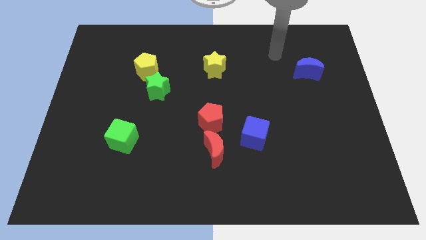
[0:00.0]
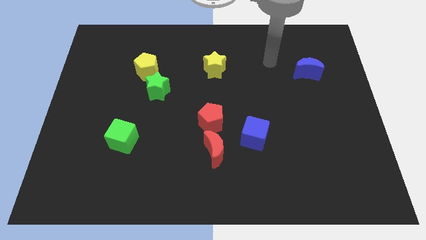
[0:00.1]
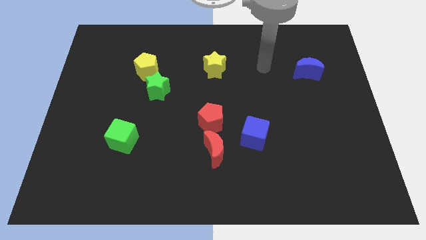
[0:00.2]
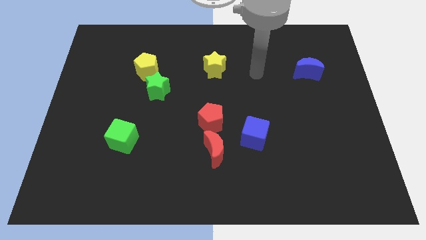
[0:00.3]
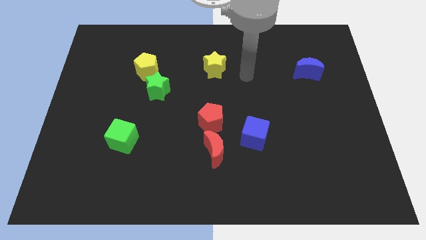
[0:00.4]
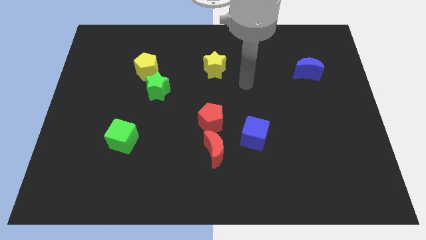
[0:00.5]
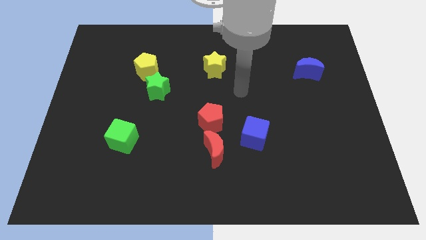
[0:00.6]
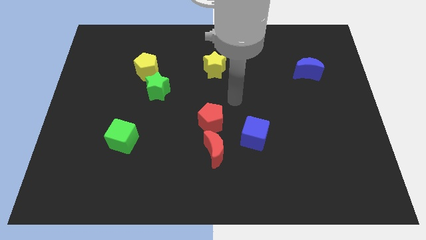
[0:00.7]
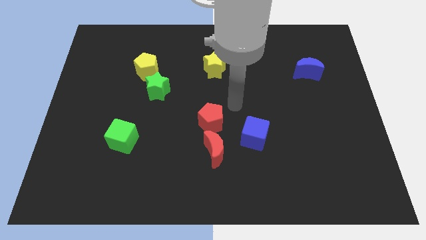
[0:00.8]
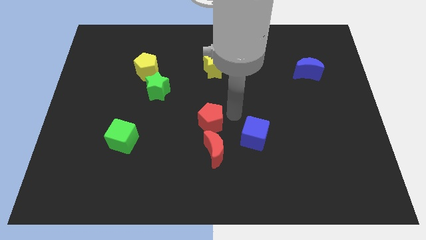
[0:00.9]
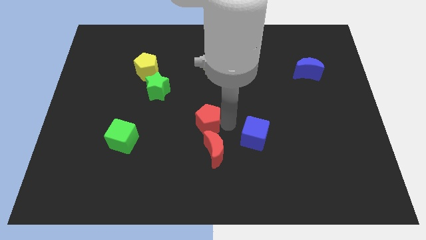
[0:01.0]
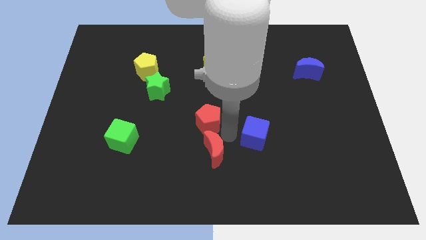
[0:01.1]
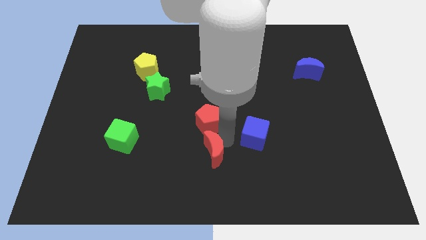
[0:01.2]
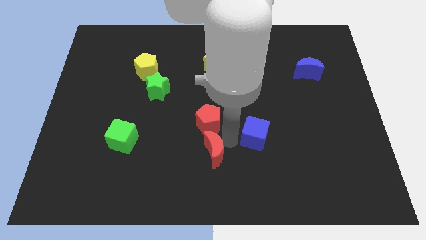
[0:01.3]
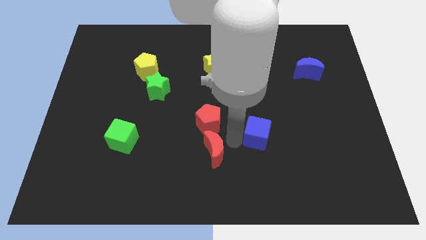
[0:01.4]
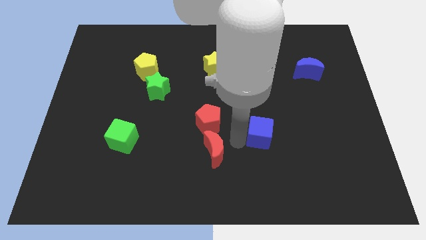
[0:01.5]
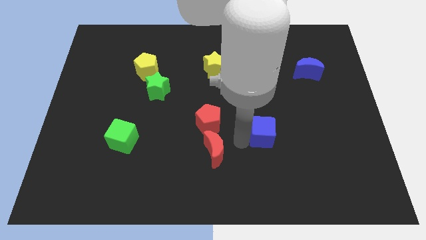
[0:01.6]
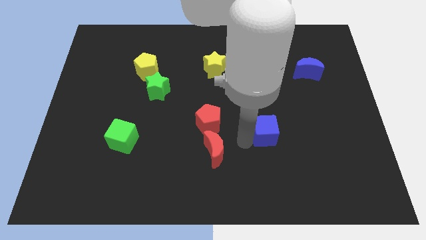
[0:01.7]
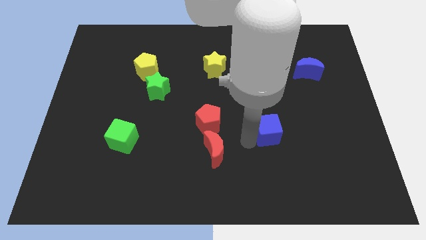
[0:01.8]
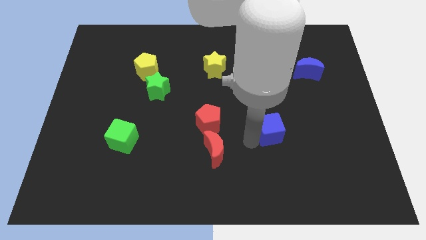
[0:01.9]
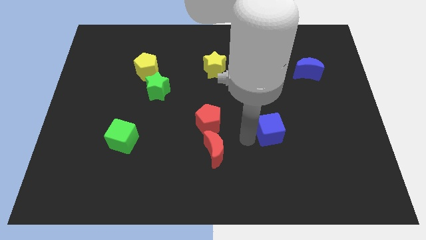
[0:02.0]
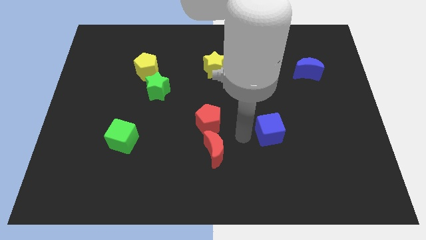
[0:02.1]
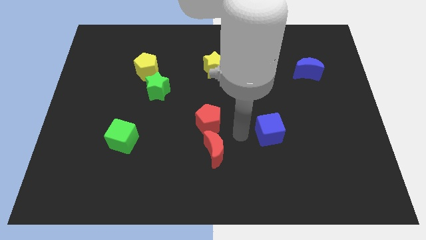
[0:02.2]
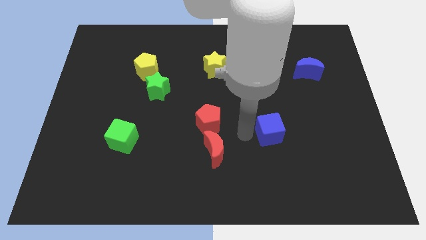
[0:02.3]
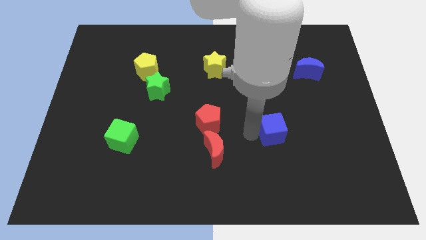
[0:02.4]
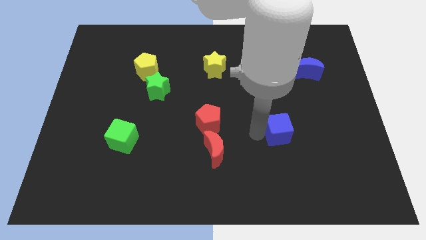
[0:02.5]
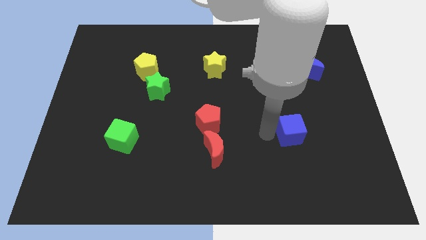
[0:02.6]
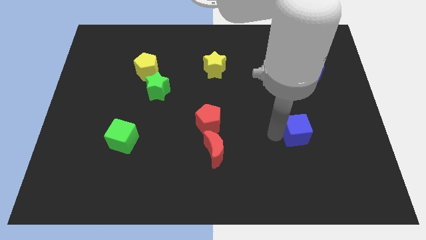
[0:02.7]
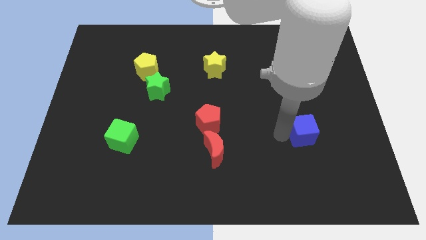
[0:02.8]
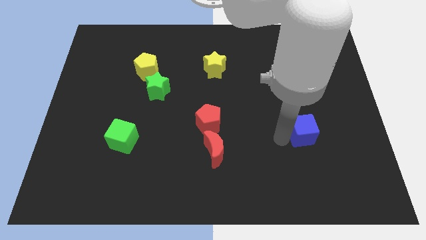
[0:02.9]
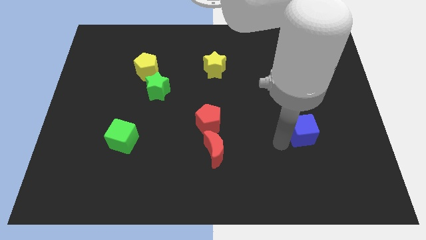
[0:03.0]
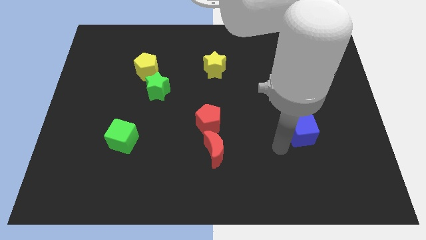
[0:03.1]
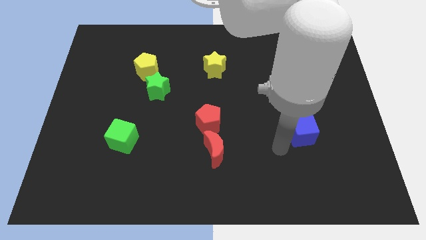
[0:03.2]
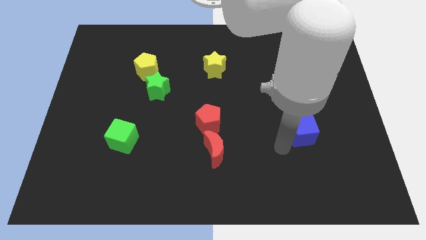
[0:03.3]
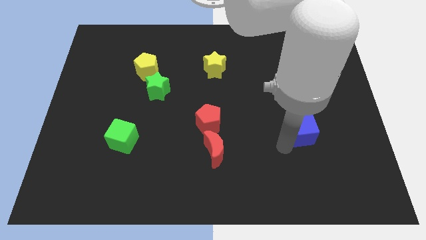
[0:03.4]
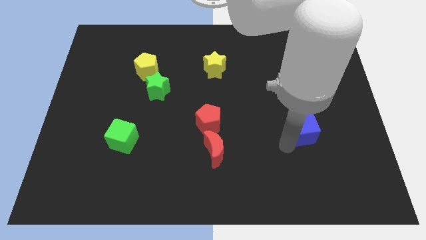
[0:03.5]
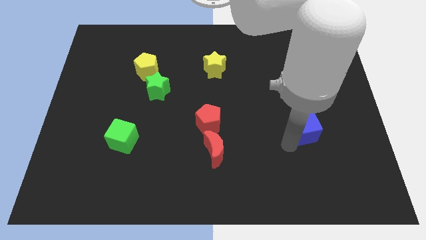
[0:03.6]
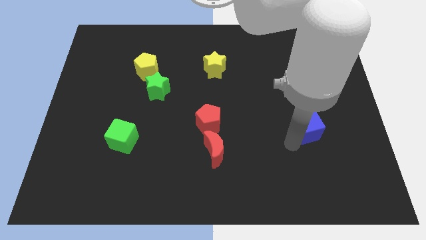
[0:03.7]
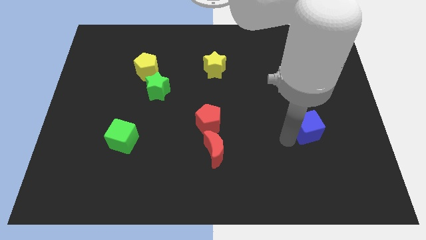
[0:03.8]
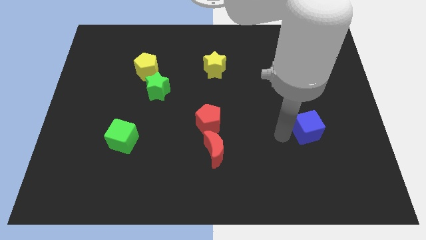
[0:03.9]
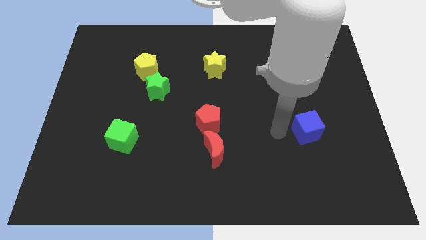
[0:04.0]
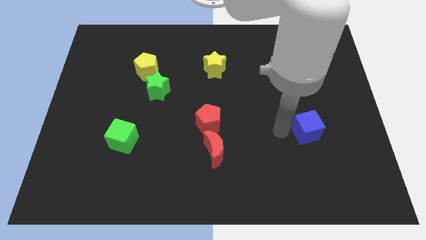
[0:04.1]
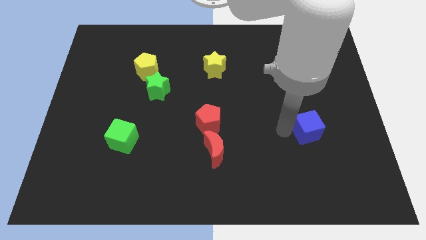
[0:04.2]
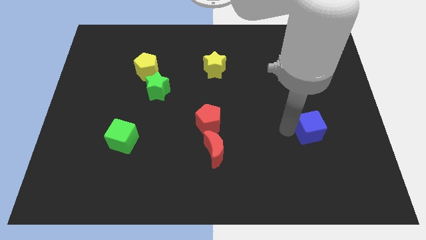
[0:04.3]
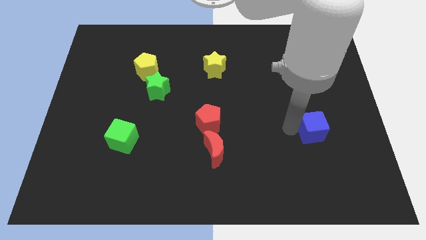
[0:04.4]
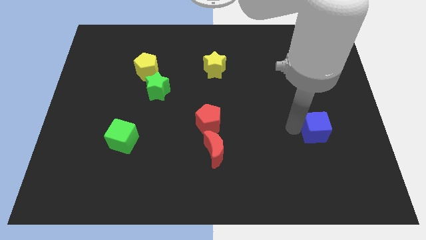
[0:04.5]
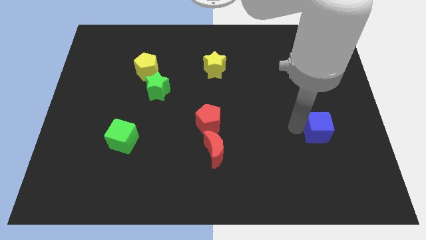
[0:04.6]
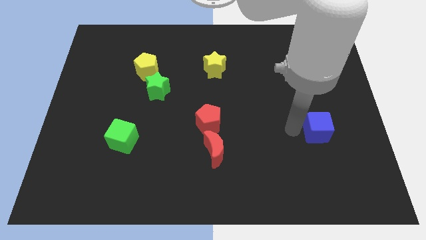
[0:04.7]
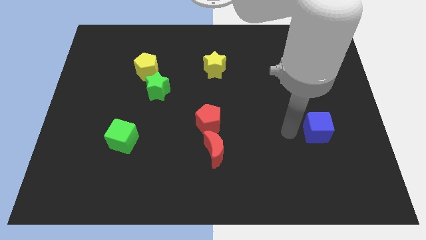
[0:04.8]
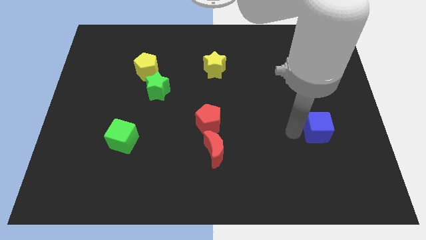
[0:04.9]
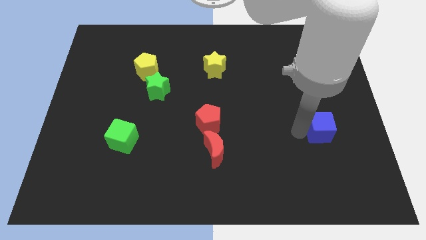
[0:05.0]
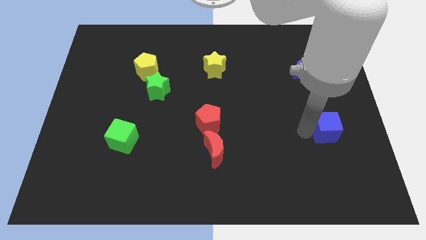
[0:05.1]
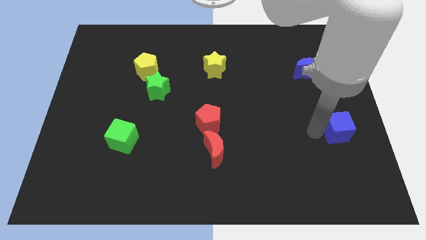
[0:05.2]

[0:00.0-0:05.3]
move the blue cube to the right side

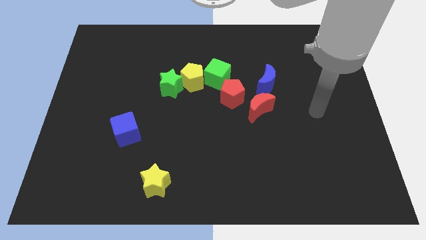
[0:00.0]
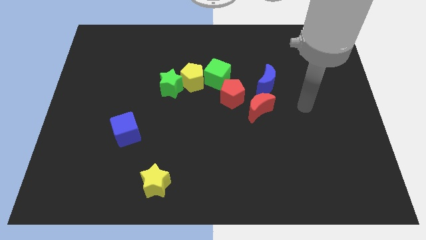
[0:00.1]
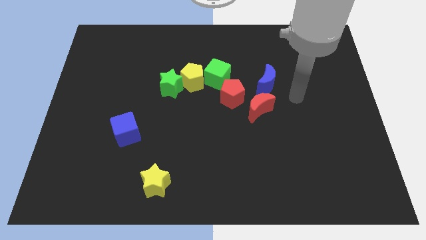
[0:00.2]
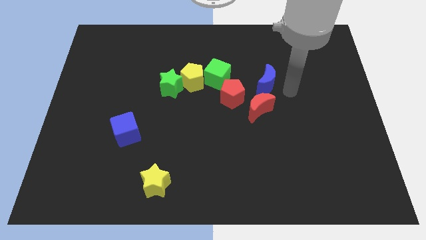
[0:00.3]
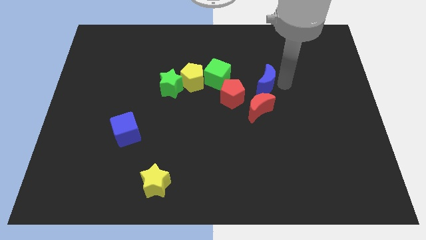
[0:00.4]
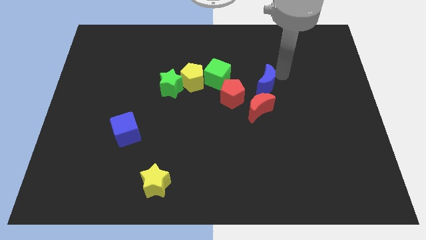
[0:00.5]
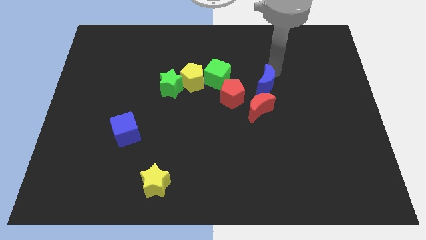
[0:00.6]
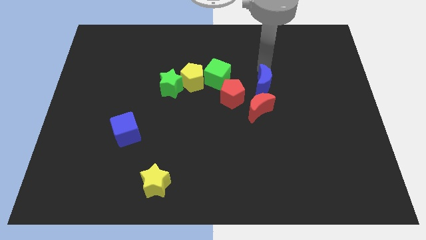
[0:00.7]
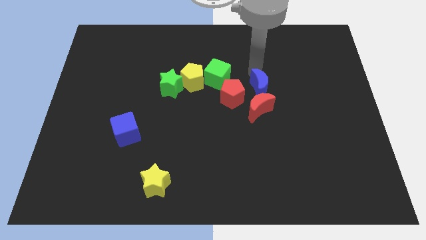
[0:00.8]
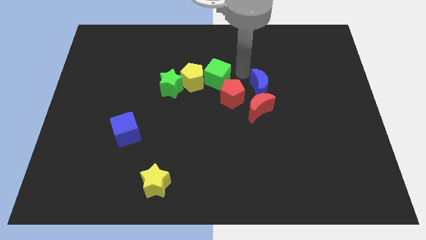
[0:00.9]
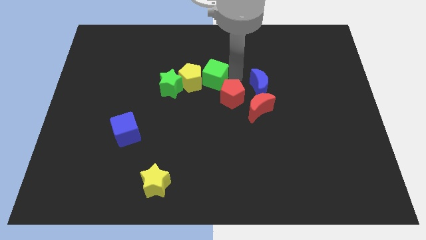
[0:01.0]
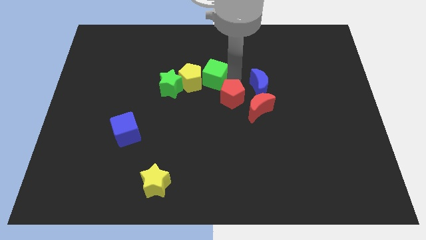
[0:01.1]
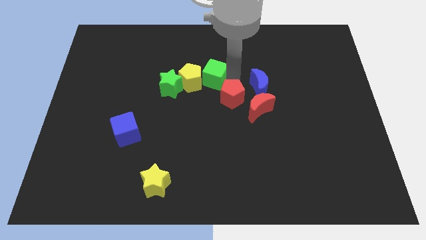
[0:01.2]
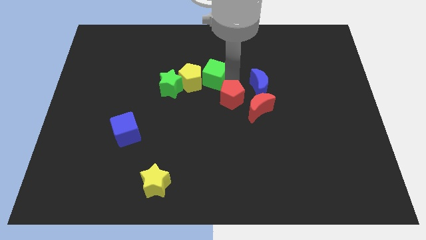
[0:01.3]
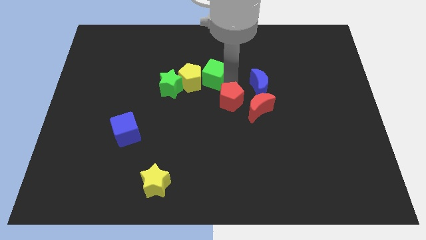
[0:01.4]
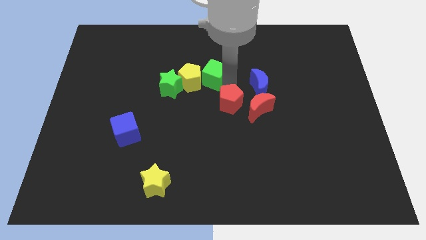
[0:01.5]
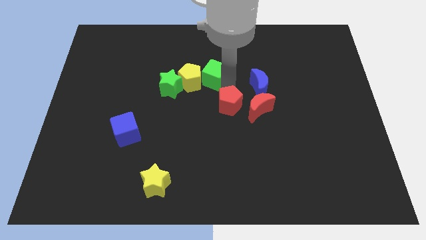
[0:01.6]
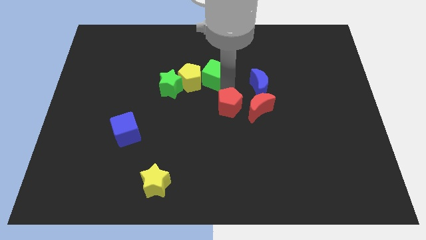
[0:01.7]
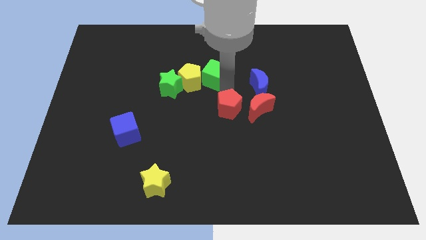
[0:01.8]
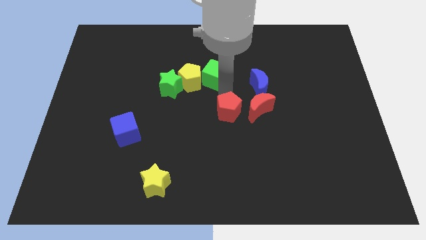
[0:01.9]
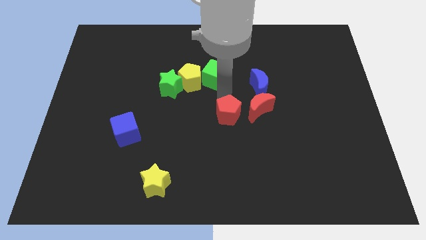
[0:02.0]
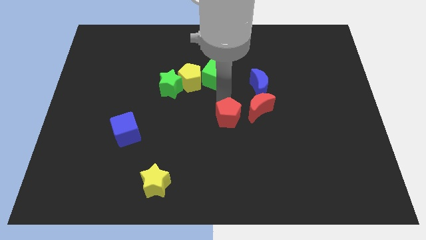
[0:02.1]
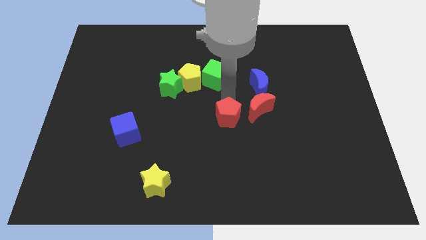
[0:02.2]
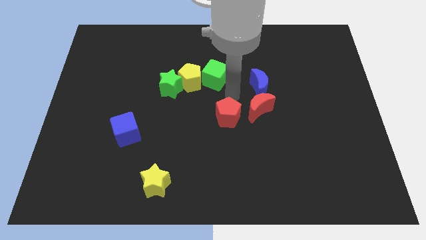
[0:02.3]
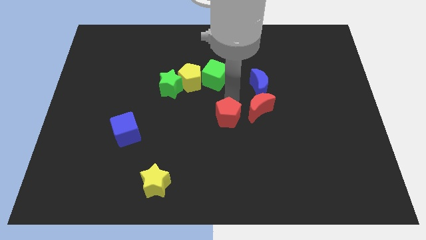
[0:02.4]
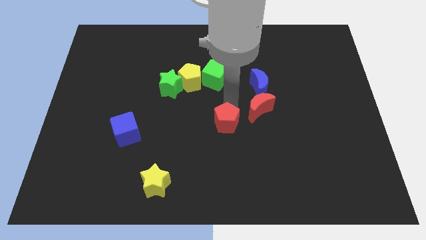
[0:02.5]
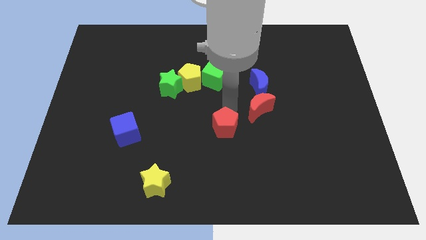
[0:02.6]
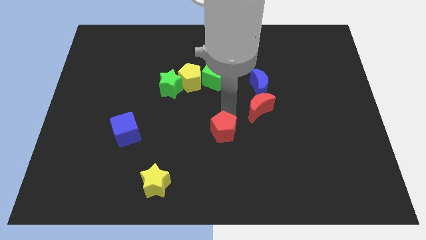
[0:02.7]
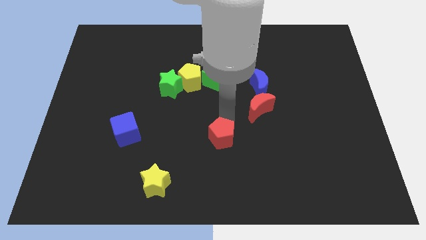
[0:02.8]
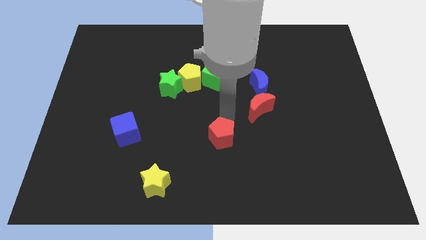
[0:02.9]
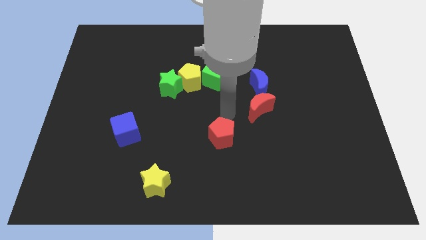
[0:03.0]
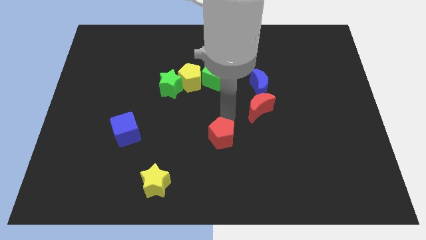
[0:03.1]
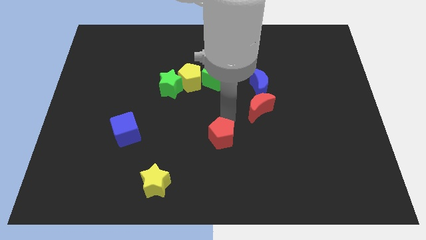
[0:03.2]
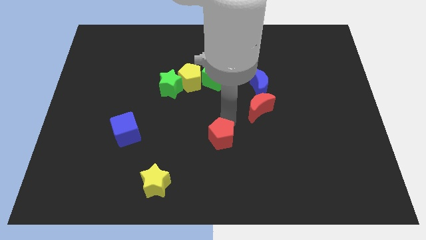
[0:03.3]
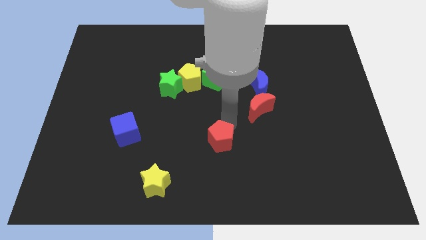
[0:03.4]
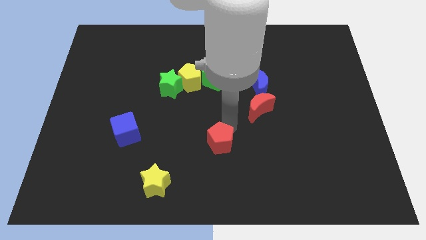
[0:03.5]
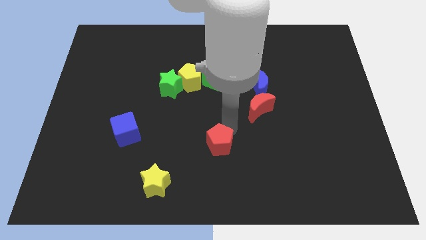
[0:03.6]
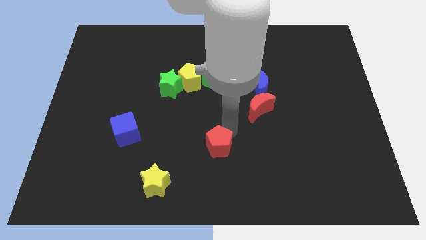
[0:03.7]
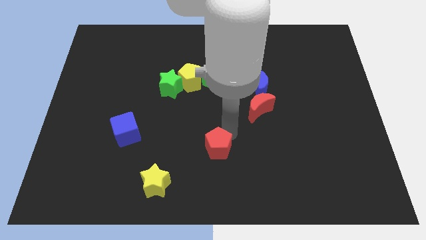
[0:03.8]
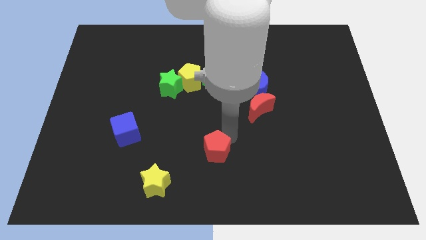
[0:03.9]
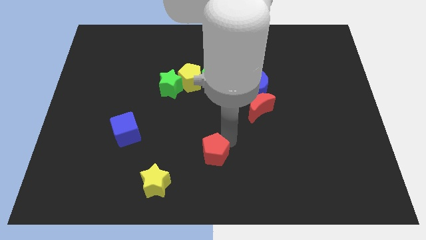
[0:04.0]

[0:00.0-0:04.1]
push the red pentagon to the bottom side
